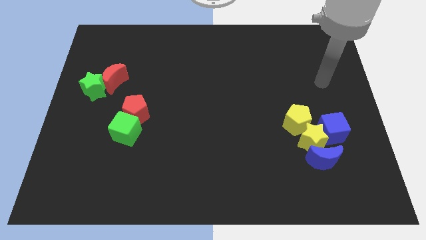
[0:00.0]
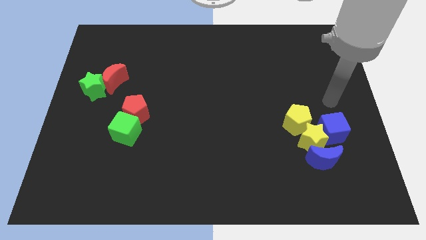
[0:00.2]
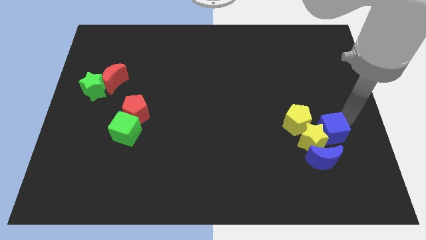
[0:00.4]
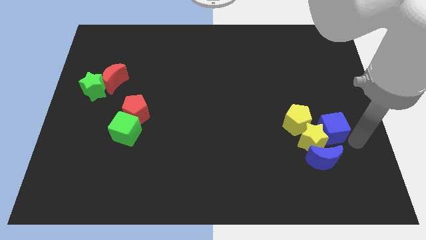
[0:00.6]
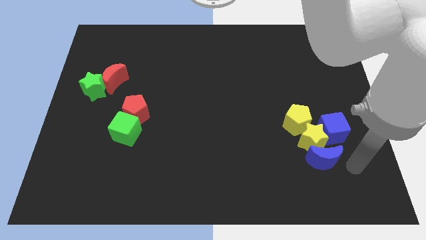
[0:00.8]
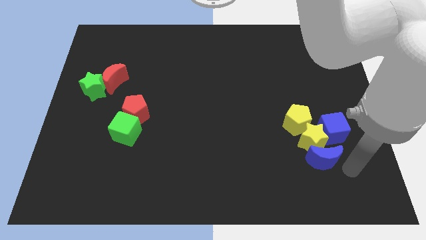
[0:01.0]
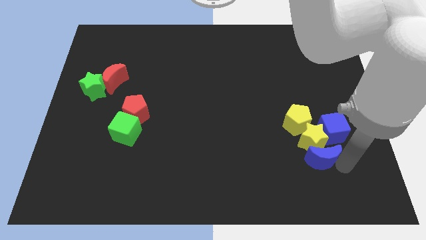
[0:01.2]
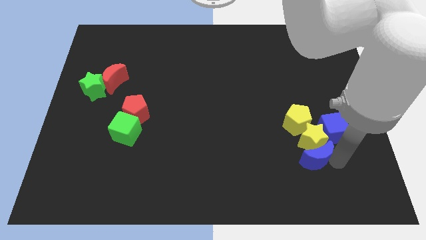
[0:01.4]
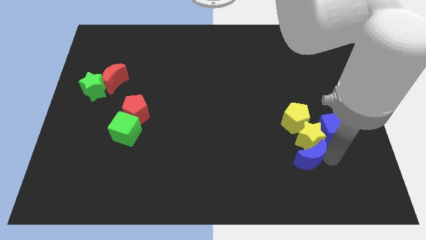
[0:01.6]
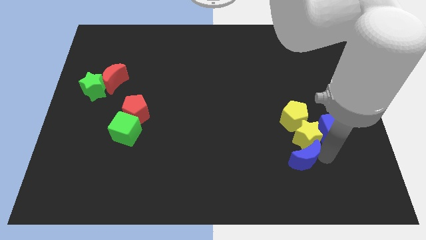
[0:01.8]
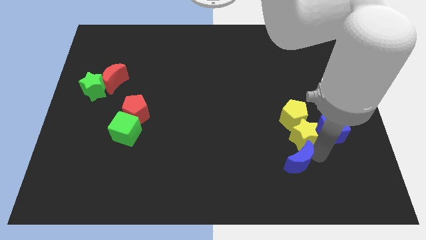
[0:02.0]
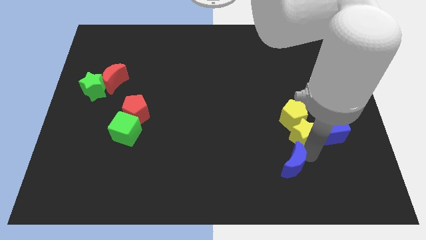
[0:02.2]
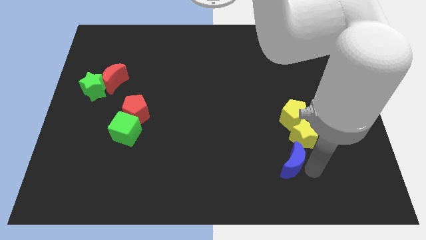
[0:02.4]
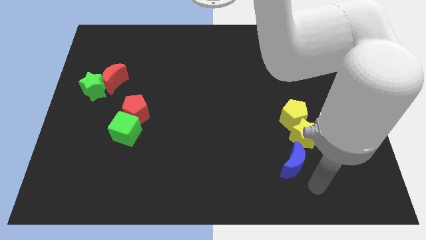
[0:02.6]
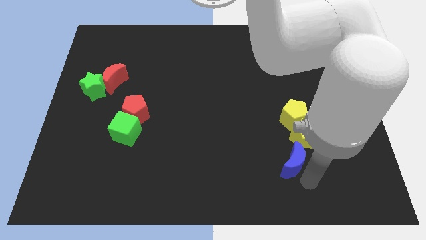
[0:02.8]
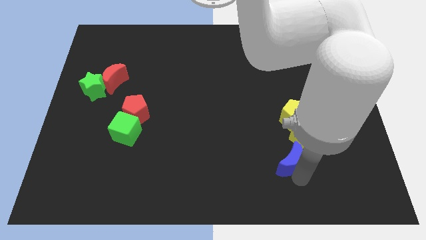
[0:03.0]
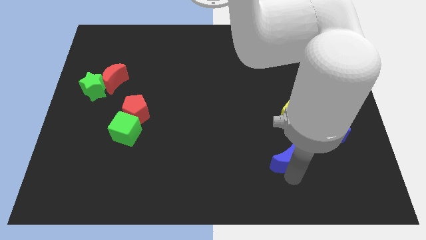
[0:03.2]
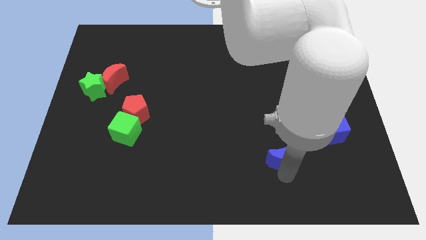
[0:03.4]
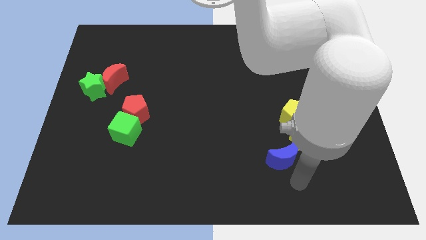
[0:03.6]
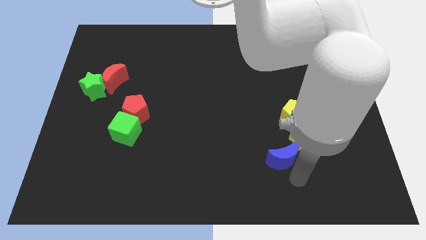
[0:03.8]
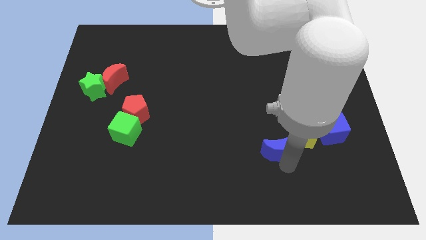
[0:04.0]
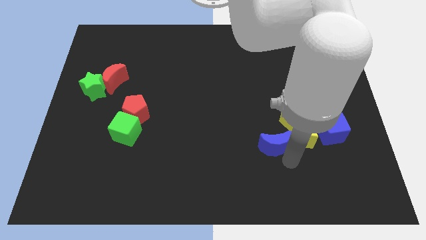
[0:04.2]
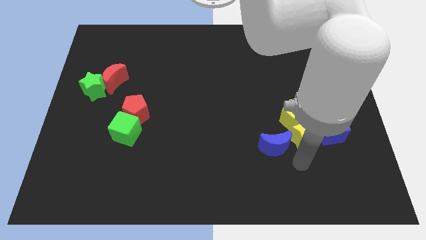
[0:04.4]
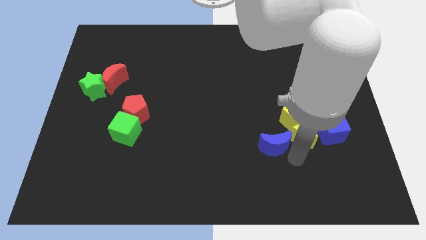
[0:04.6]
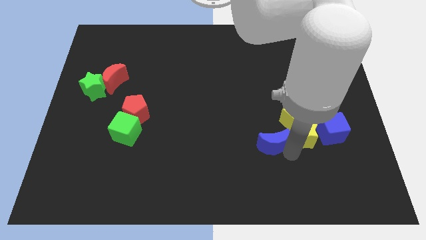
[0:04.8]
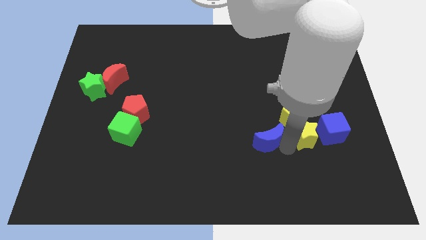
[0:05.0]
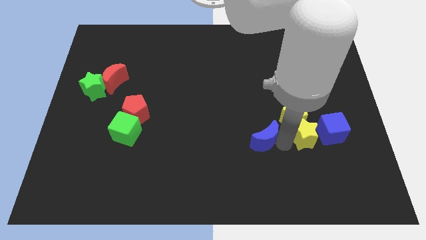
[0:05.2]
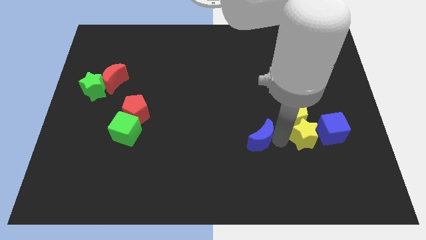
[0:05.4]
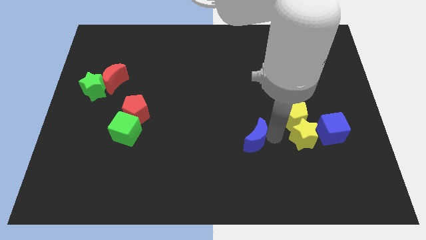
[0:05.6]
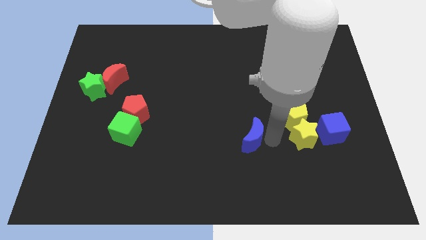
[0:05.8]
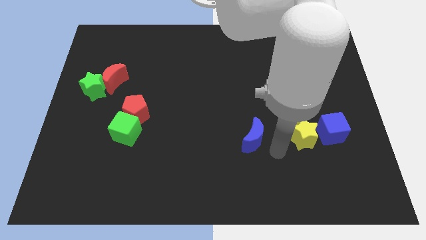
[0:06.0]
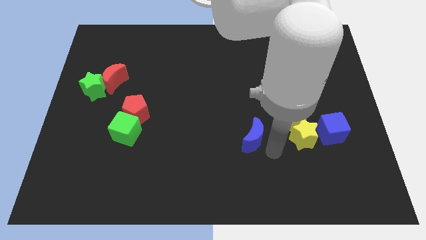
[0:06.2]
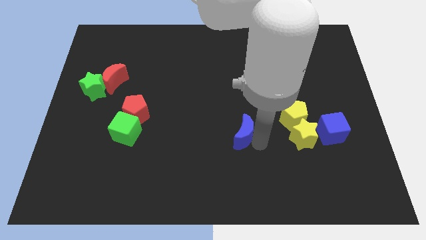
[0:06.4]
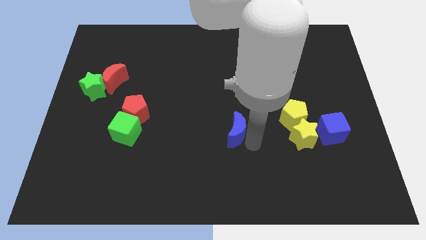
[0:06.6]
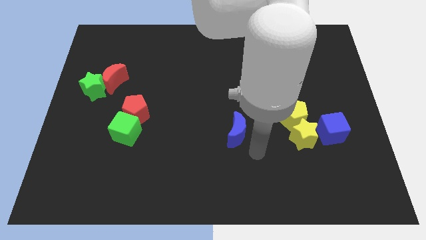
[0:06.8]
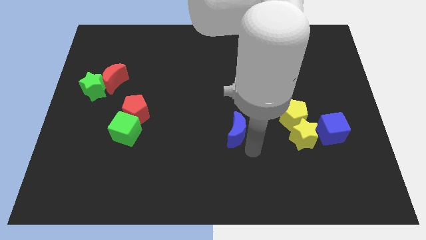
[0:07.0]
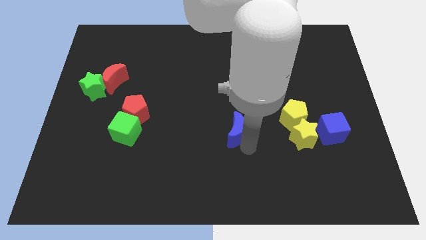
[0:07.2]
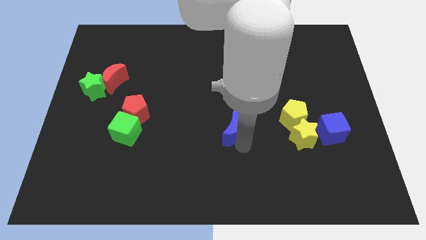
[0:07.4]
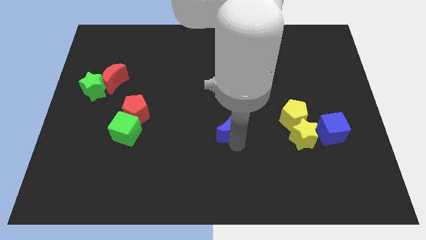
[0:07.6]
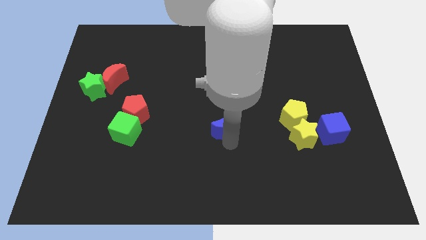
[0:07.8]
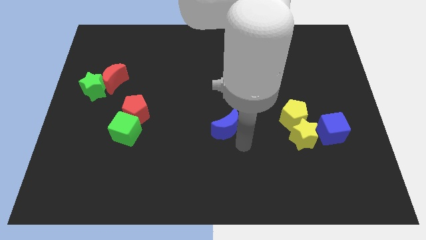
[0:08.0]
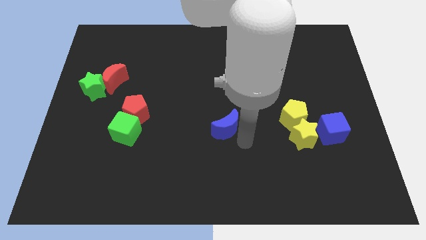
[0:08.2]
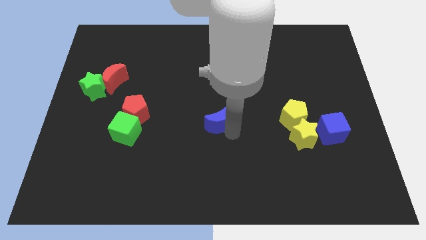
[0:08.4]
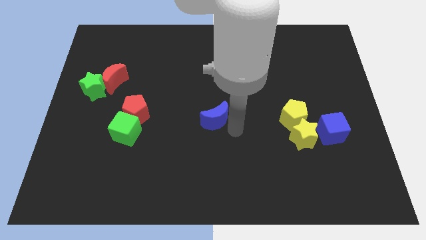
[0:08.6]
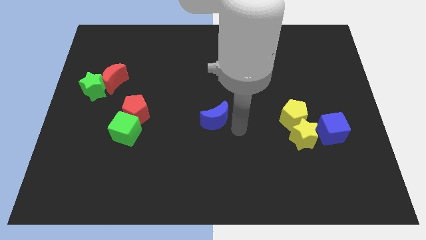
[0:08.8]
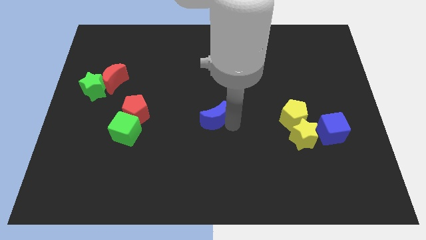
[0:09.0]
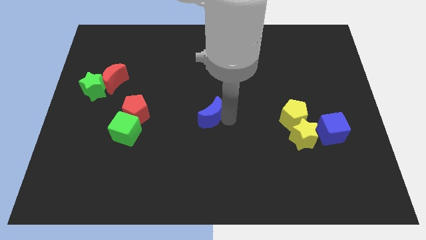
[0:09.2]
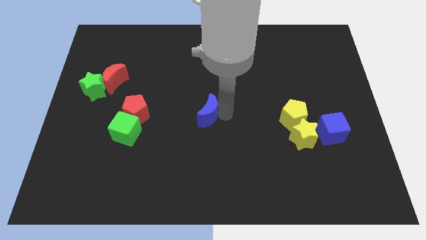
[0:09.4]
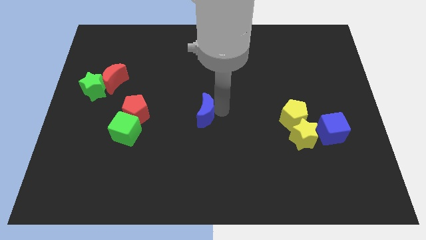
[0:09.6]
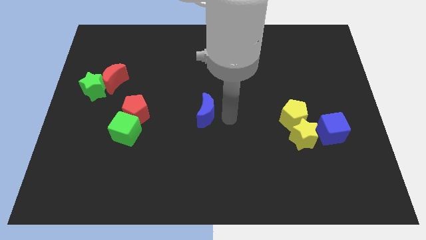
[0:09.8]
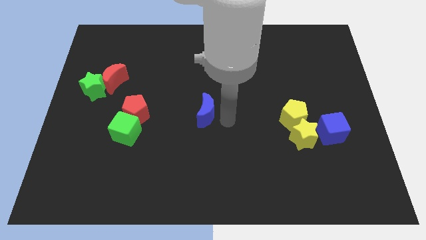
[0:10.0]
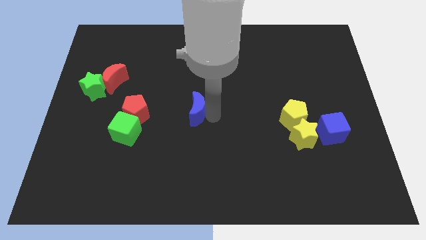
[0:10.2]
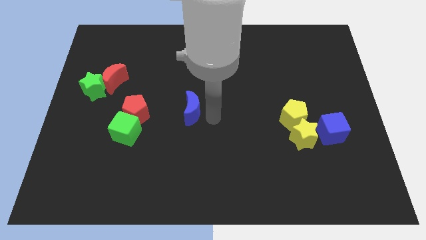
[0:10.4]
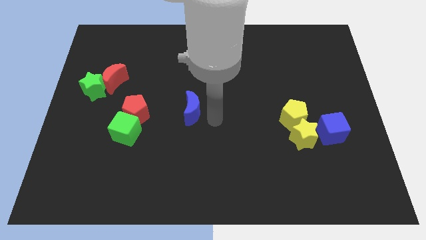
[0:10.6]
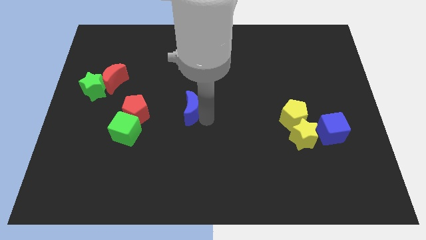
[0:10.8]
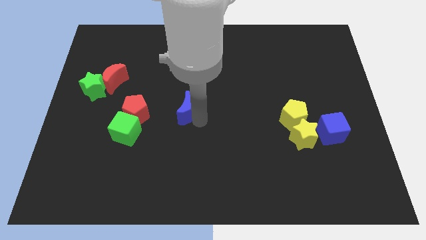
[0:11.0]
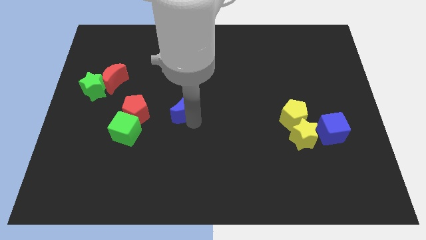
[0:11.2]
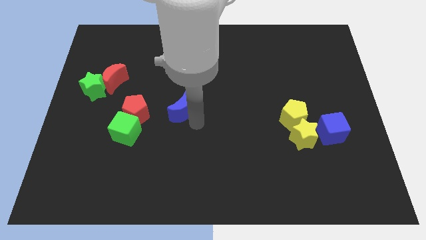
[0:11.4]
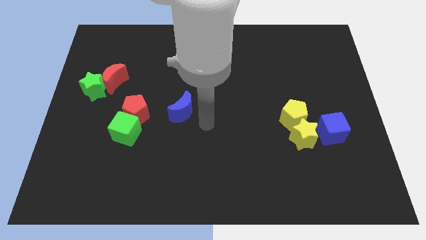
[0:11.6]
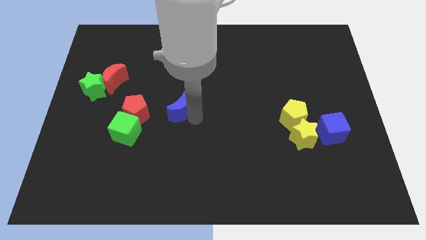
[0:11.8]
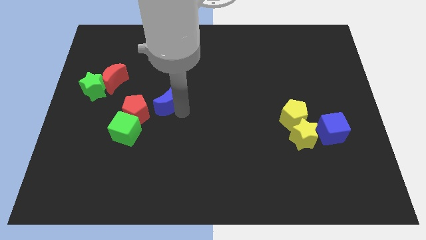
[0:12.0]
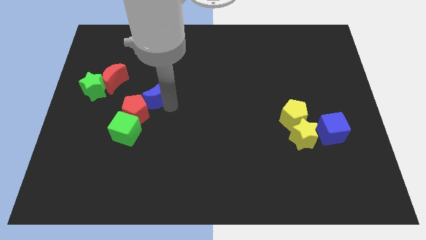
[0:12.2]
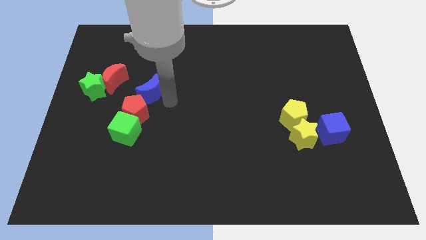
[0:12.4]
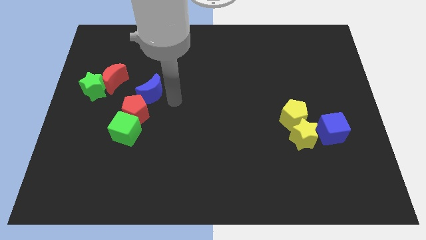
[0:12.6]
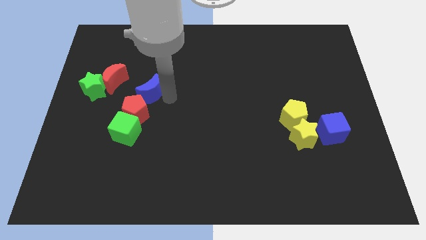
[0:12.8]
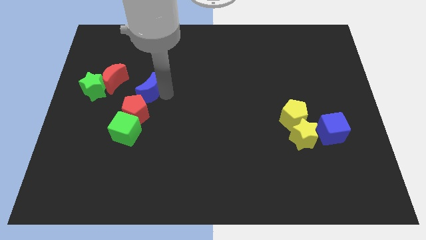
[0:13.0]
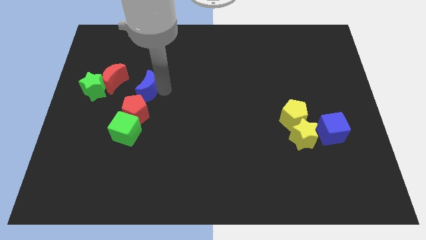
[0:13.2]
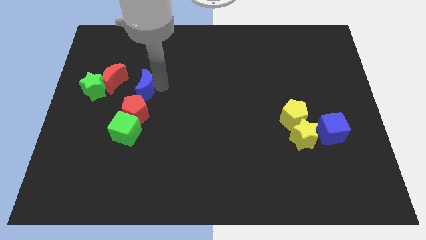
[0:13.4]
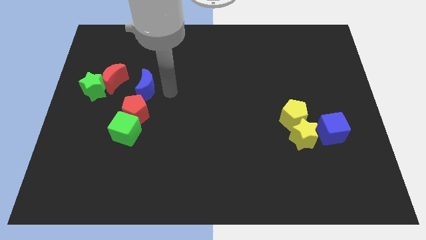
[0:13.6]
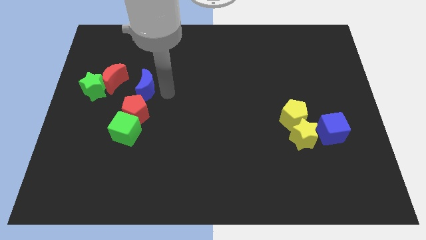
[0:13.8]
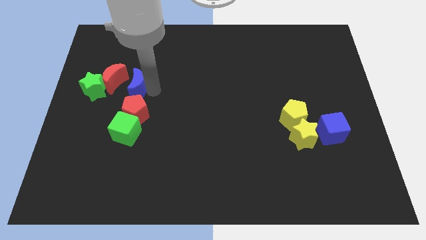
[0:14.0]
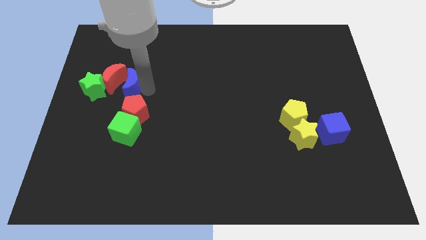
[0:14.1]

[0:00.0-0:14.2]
push the blue moon to the red moon
